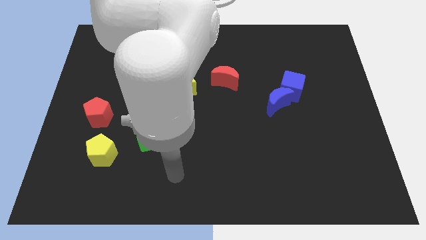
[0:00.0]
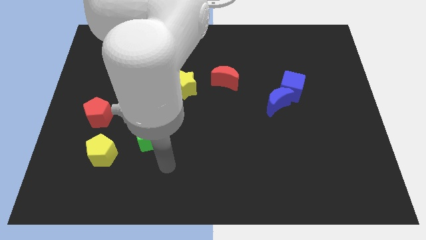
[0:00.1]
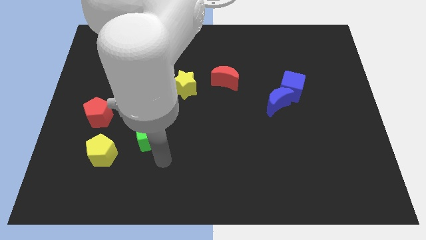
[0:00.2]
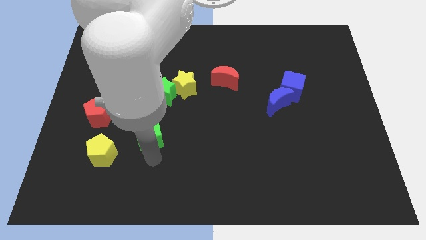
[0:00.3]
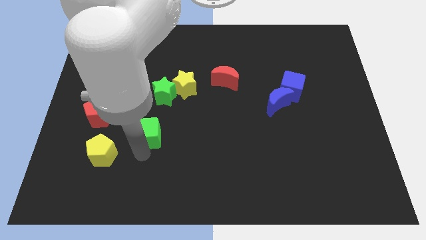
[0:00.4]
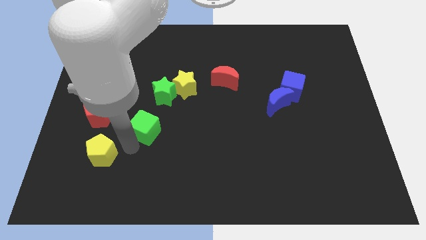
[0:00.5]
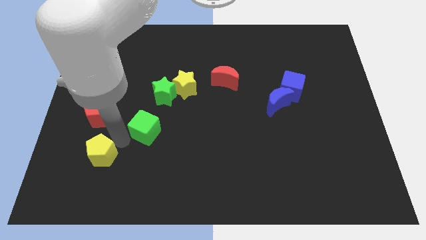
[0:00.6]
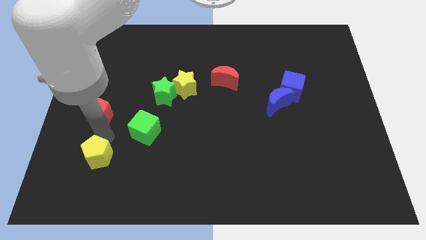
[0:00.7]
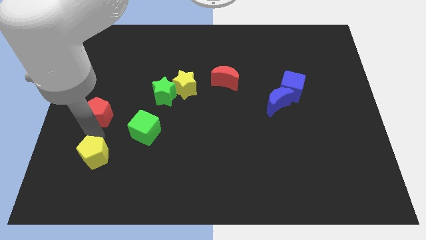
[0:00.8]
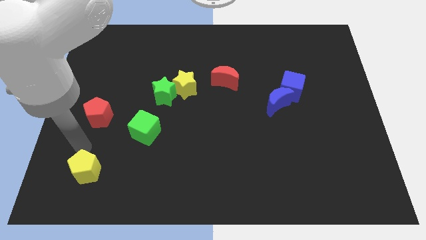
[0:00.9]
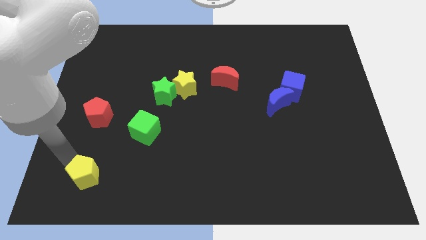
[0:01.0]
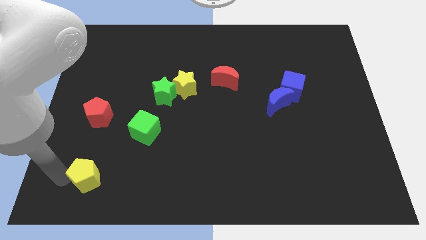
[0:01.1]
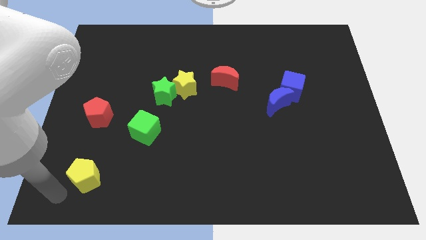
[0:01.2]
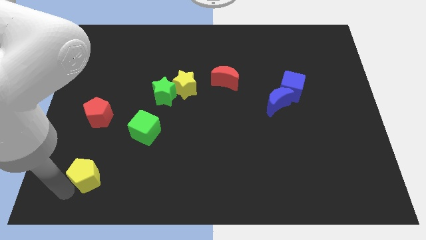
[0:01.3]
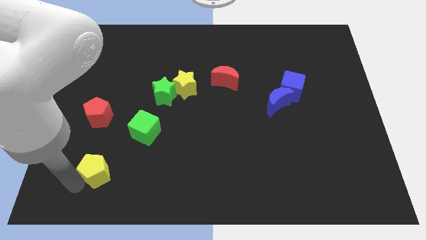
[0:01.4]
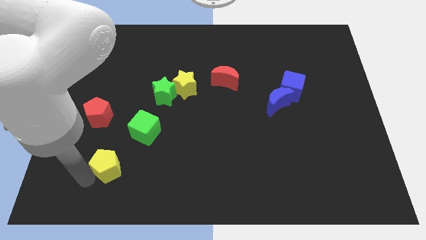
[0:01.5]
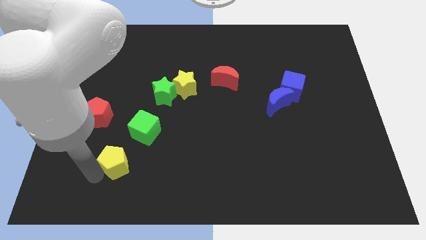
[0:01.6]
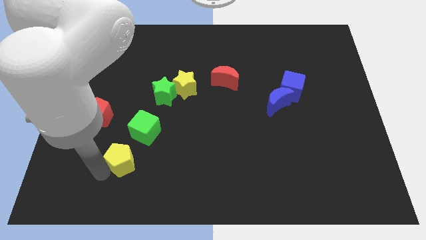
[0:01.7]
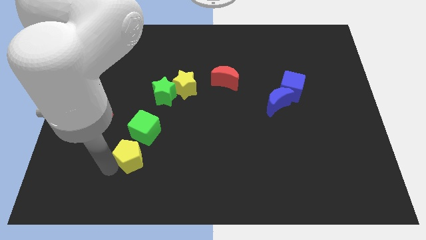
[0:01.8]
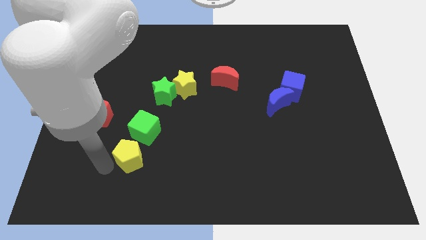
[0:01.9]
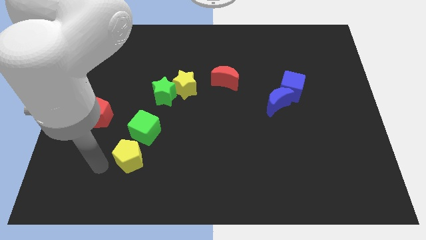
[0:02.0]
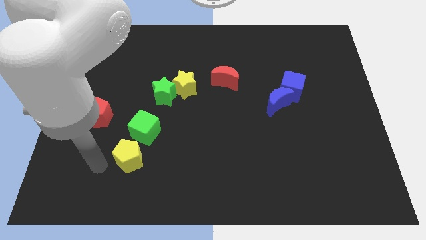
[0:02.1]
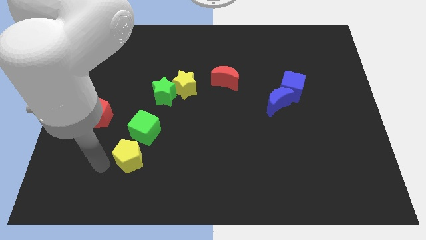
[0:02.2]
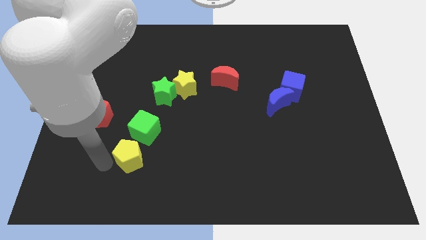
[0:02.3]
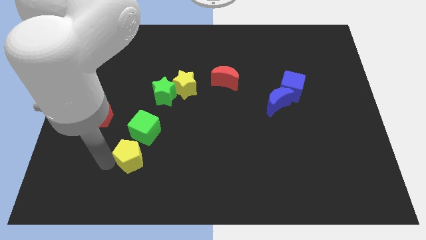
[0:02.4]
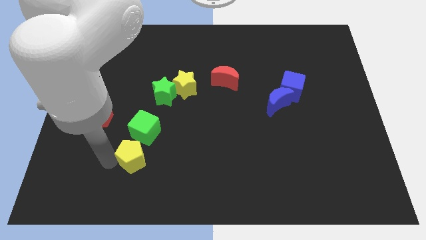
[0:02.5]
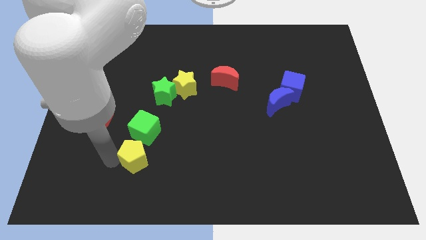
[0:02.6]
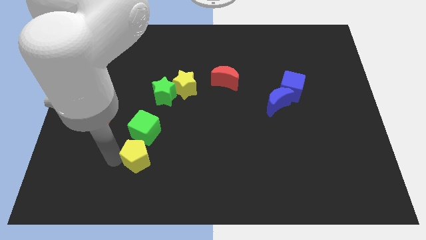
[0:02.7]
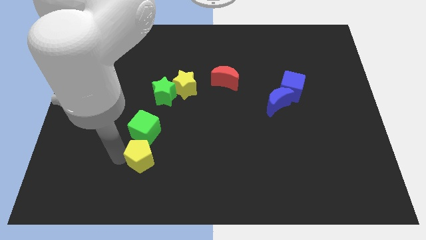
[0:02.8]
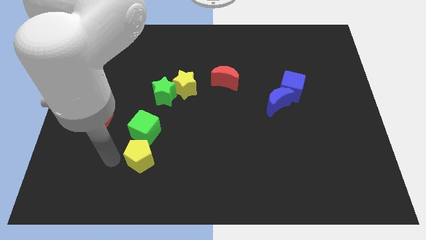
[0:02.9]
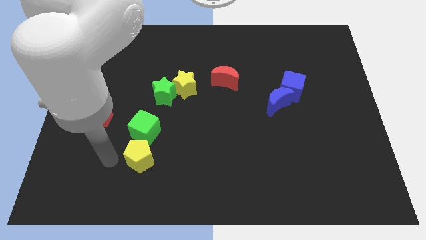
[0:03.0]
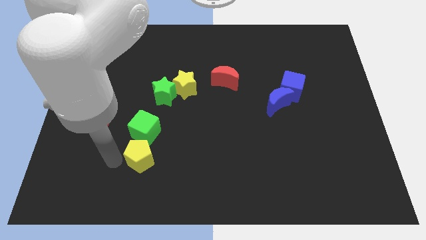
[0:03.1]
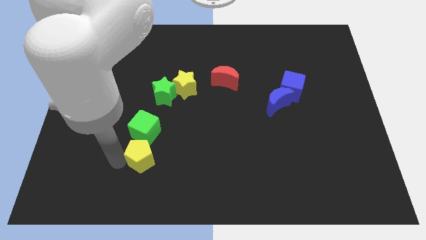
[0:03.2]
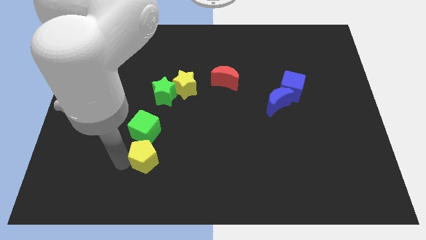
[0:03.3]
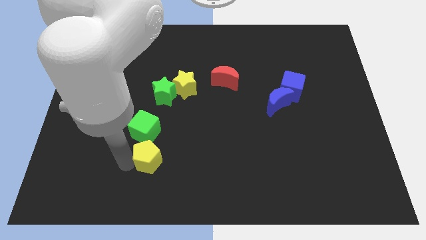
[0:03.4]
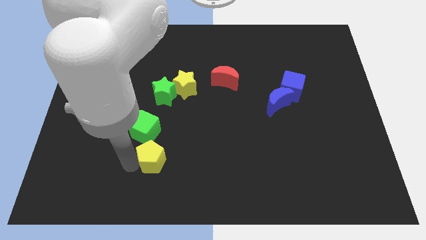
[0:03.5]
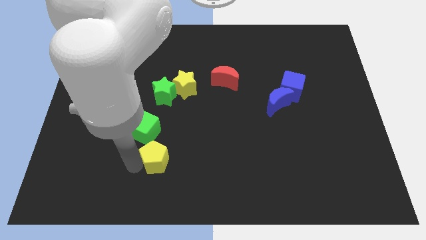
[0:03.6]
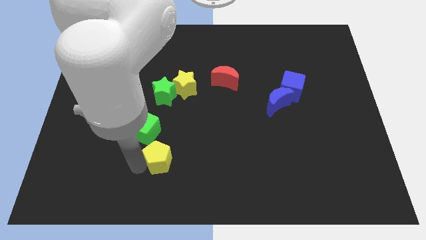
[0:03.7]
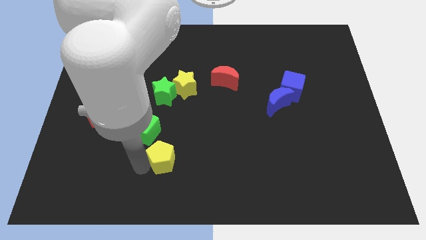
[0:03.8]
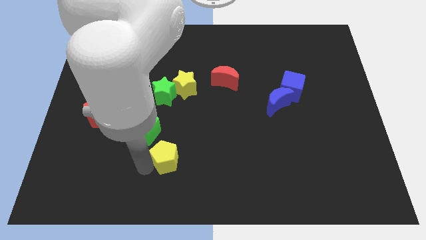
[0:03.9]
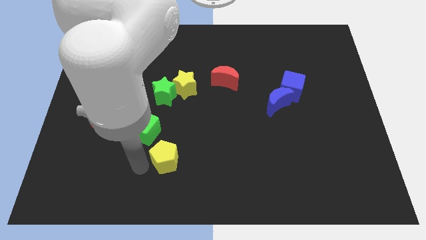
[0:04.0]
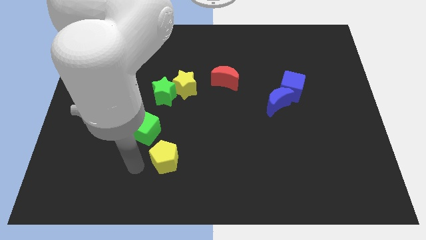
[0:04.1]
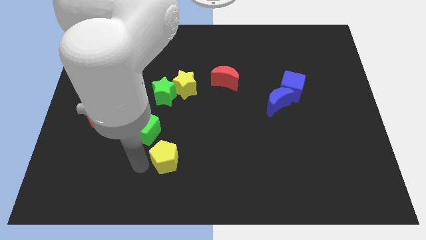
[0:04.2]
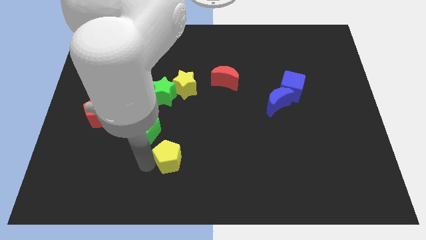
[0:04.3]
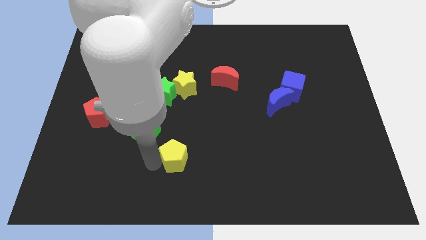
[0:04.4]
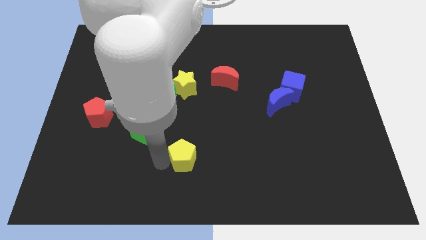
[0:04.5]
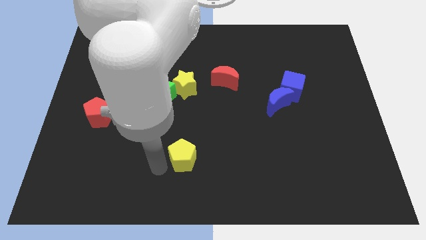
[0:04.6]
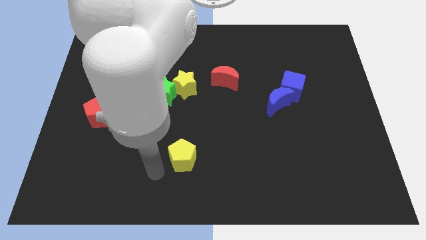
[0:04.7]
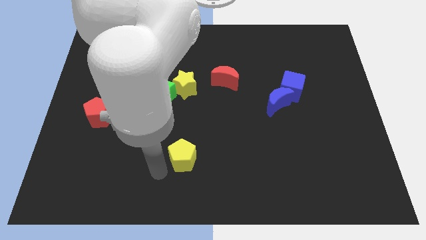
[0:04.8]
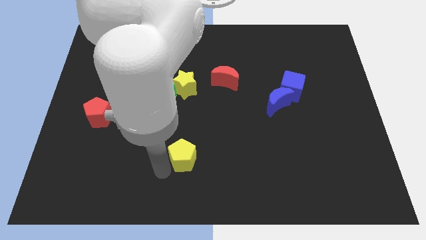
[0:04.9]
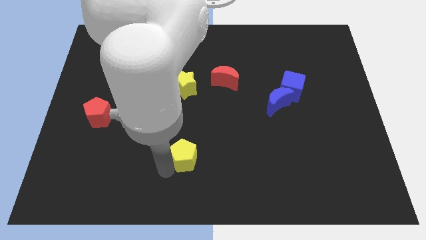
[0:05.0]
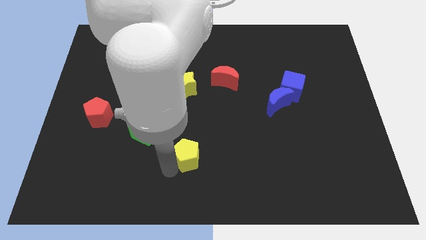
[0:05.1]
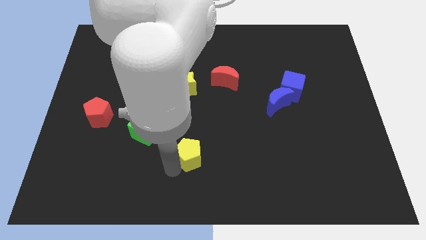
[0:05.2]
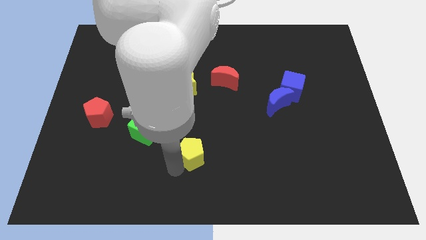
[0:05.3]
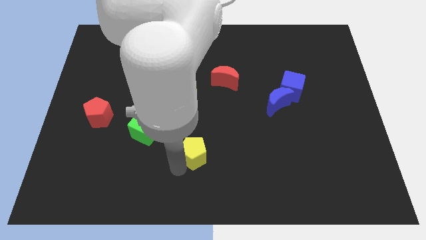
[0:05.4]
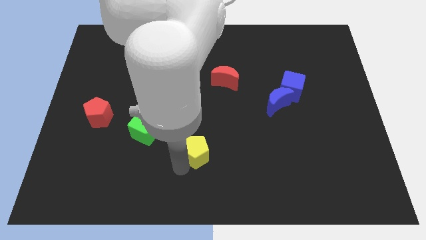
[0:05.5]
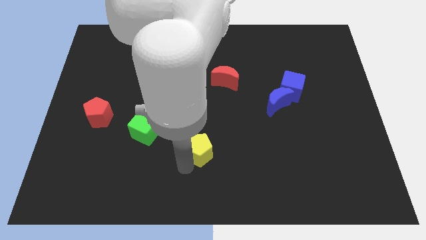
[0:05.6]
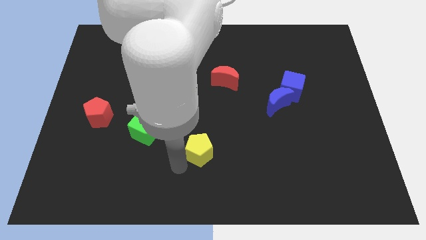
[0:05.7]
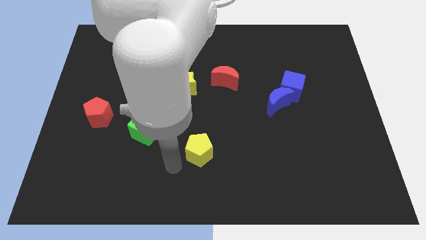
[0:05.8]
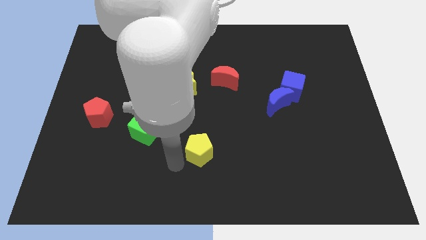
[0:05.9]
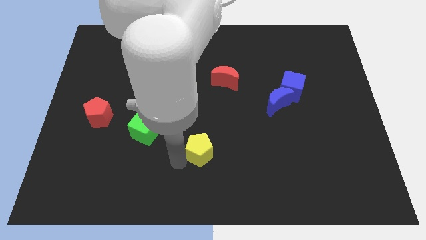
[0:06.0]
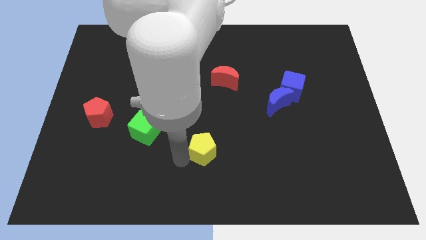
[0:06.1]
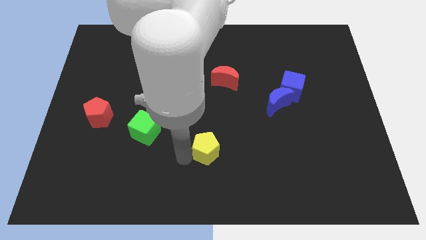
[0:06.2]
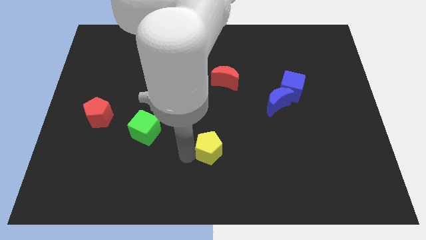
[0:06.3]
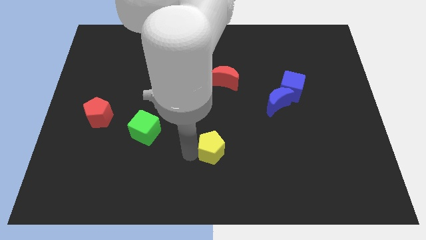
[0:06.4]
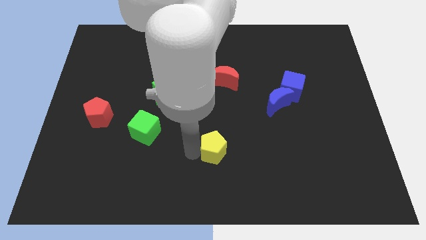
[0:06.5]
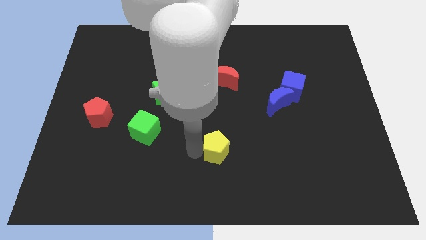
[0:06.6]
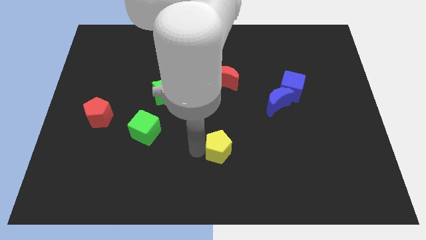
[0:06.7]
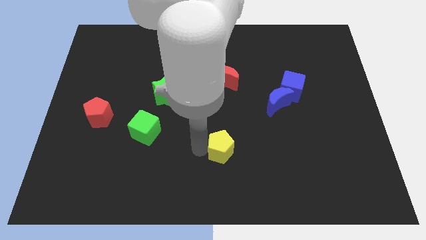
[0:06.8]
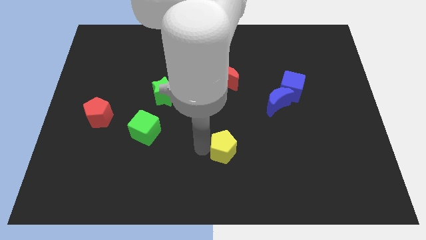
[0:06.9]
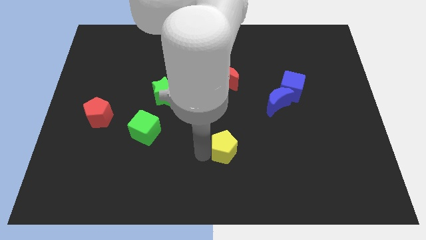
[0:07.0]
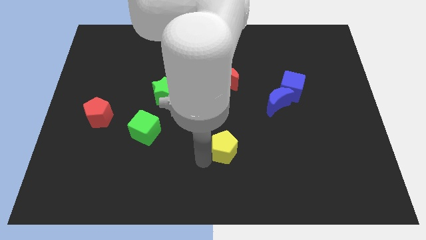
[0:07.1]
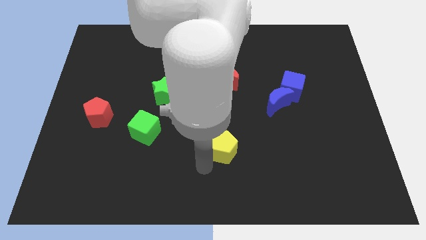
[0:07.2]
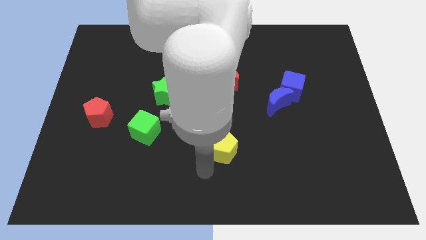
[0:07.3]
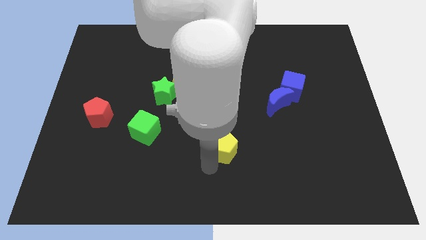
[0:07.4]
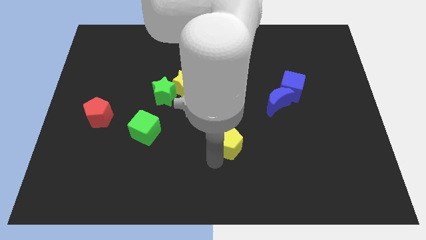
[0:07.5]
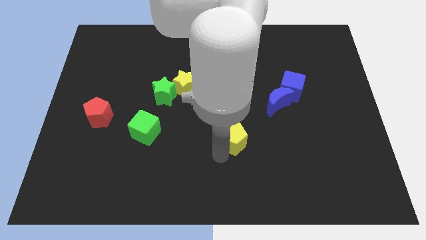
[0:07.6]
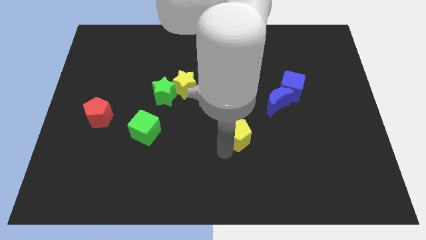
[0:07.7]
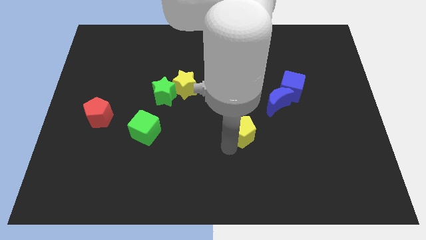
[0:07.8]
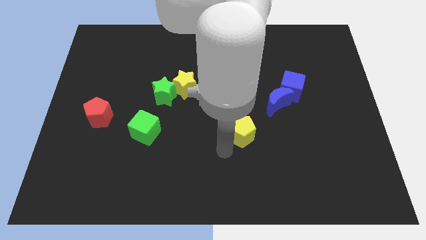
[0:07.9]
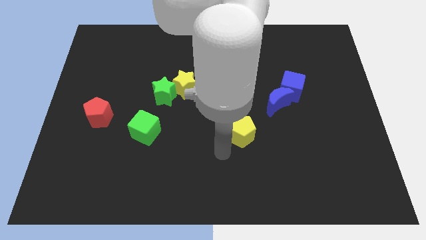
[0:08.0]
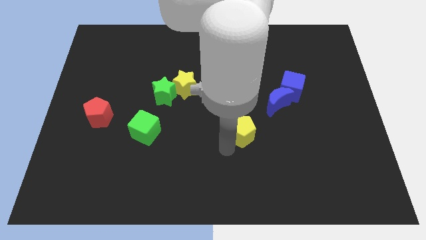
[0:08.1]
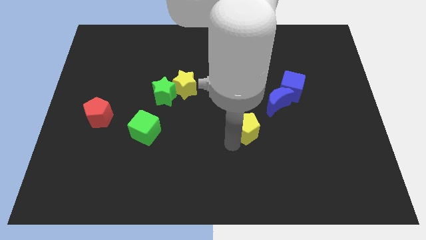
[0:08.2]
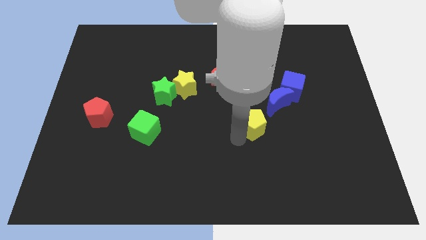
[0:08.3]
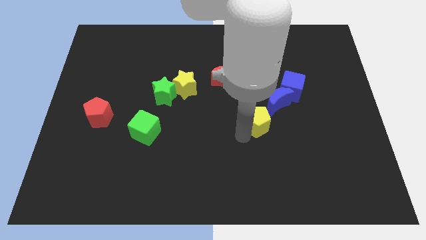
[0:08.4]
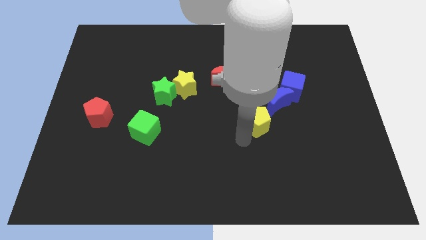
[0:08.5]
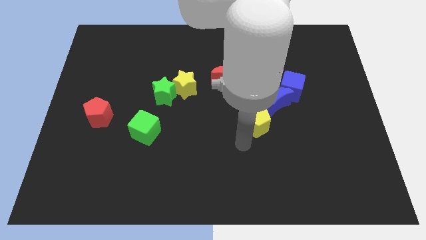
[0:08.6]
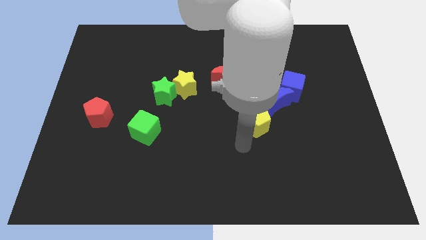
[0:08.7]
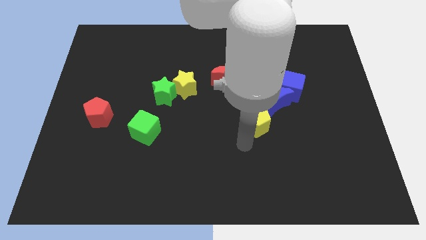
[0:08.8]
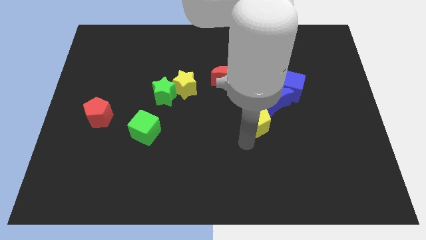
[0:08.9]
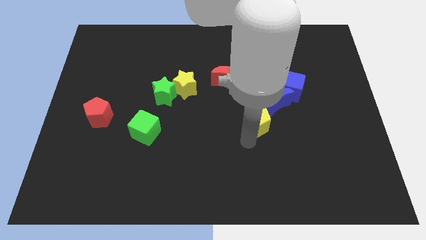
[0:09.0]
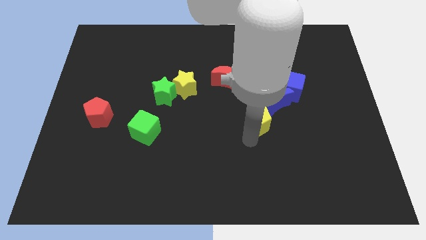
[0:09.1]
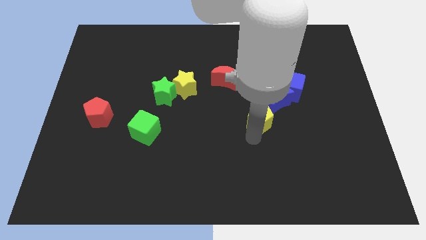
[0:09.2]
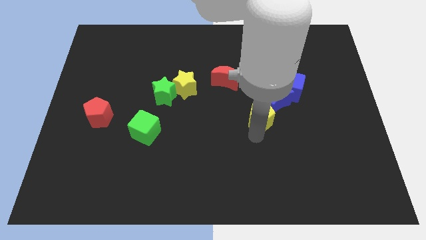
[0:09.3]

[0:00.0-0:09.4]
move the yellow pentagon next to the blue moon
